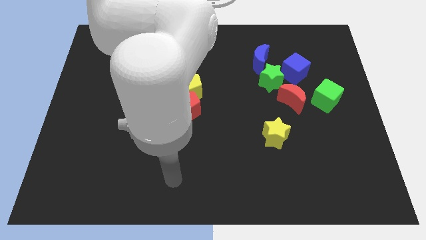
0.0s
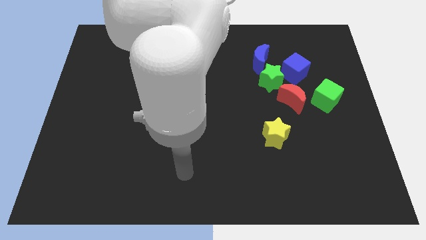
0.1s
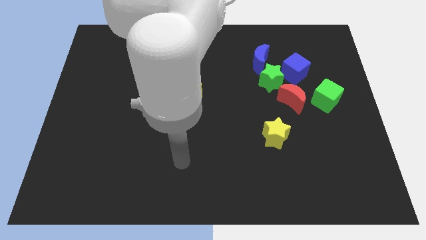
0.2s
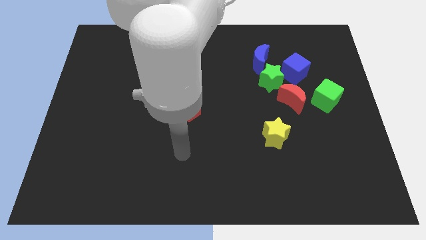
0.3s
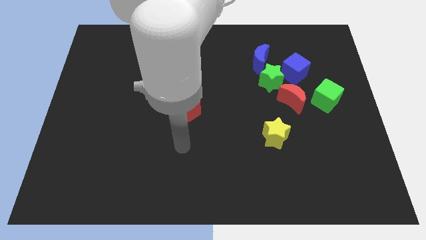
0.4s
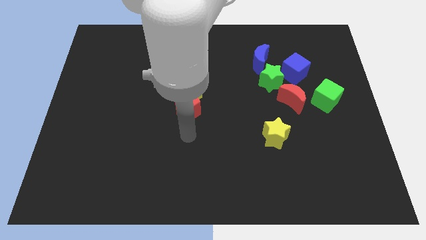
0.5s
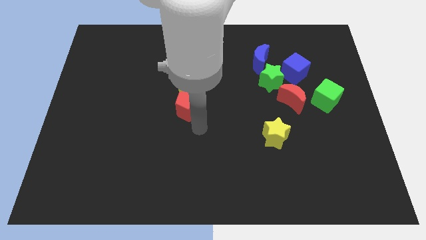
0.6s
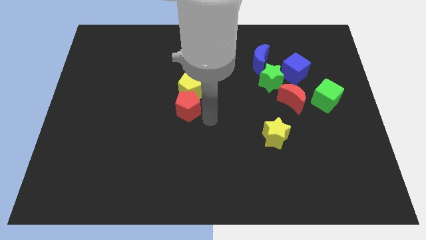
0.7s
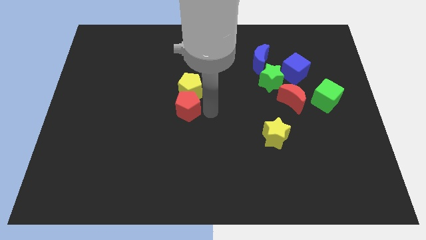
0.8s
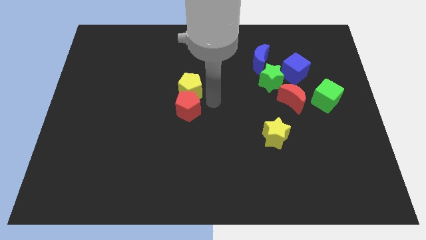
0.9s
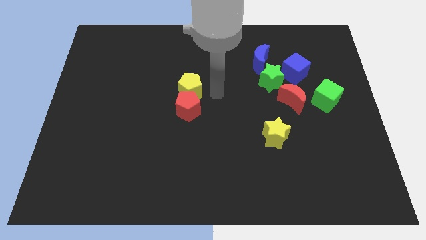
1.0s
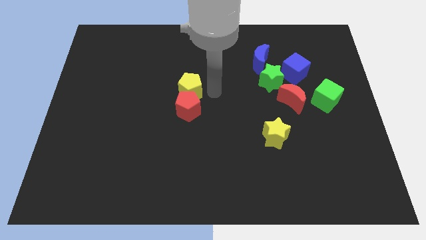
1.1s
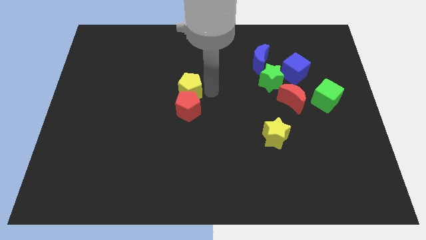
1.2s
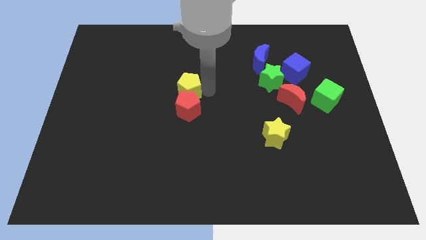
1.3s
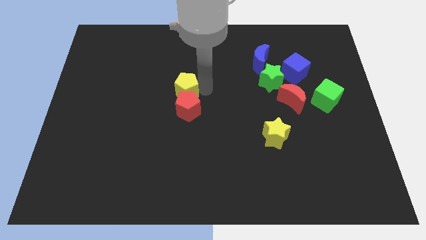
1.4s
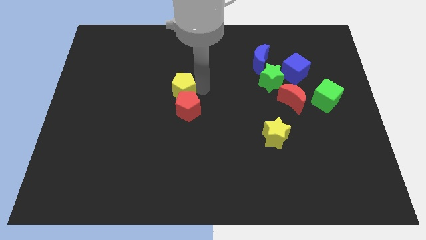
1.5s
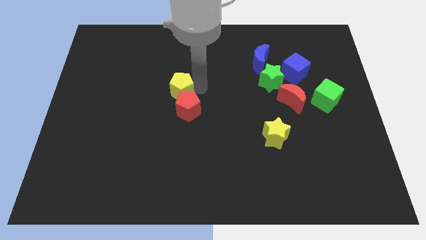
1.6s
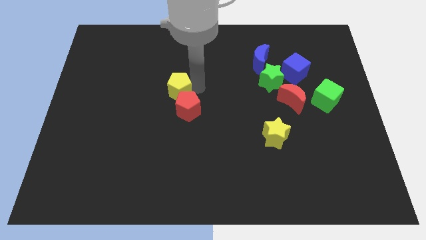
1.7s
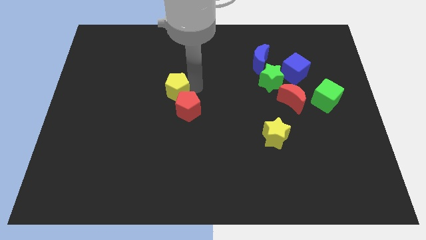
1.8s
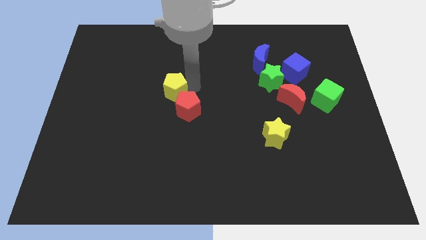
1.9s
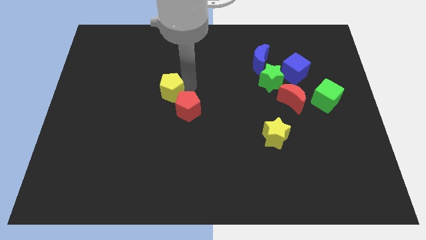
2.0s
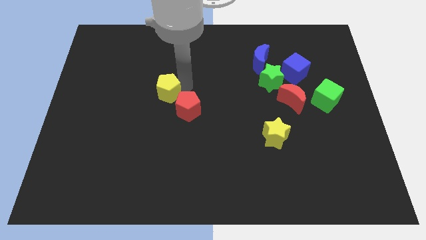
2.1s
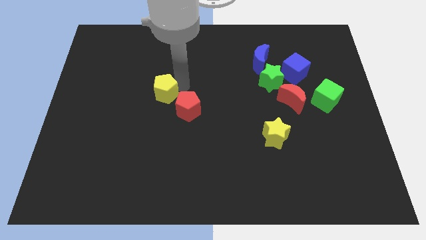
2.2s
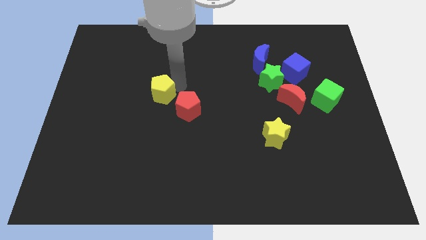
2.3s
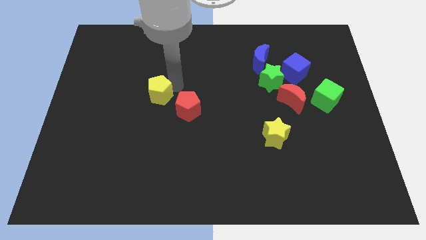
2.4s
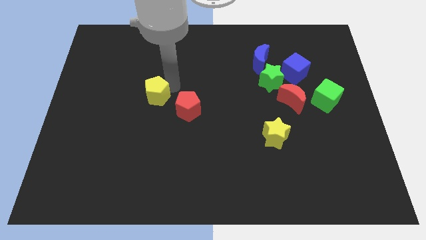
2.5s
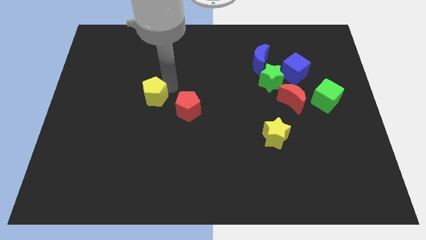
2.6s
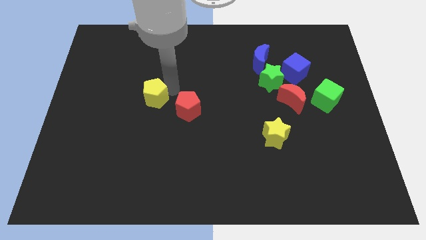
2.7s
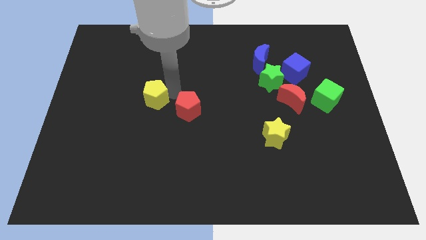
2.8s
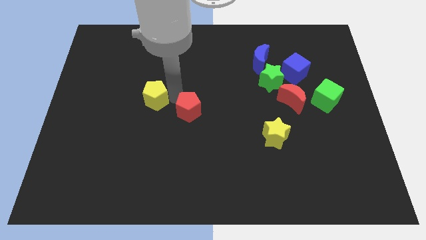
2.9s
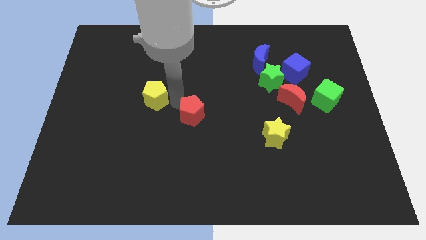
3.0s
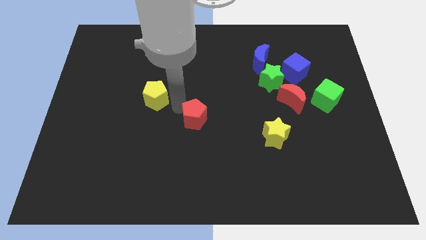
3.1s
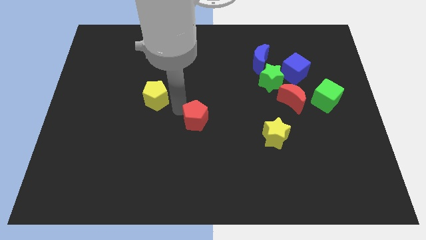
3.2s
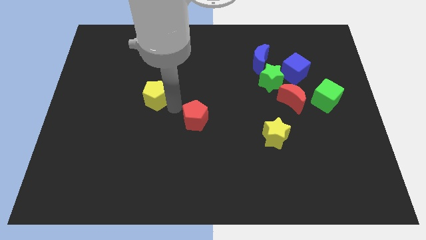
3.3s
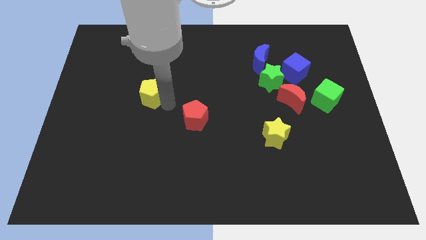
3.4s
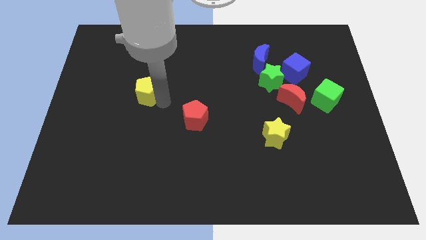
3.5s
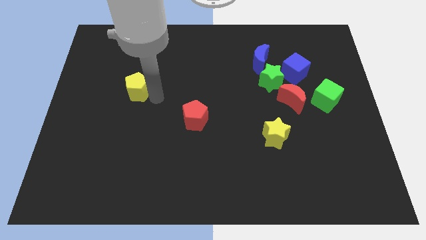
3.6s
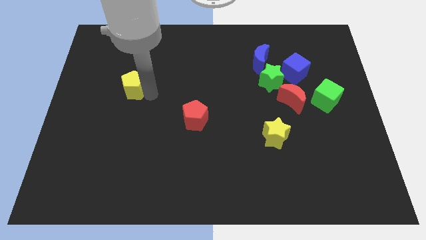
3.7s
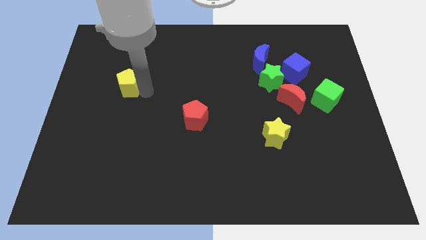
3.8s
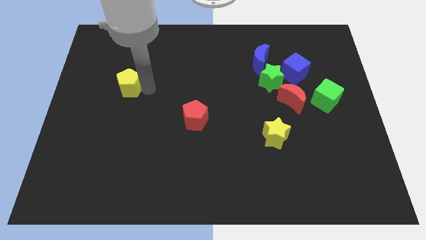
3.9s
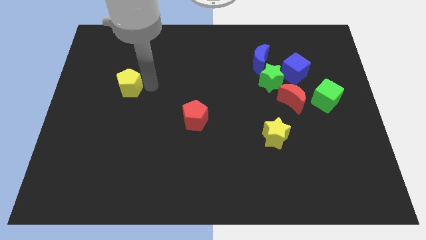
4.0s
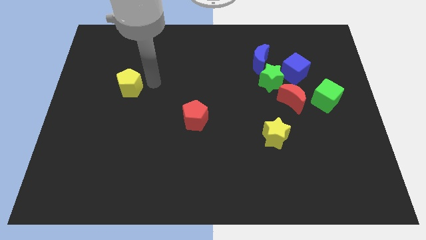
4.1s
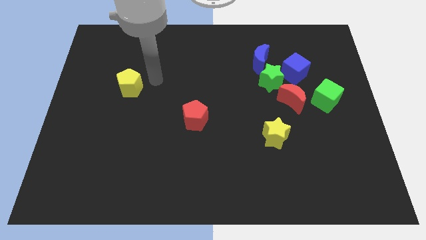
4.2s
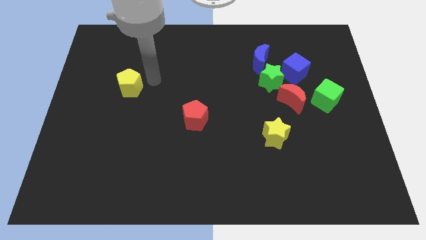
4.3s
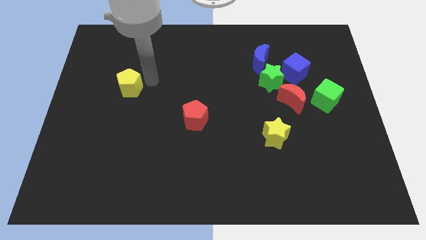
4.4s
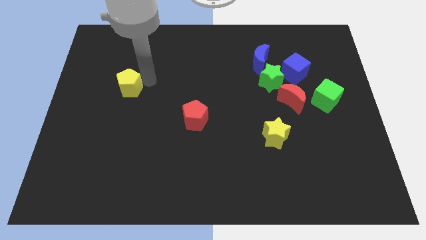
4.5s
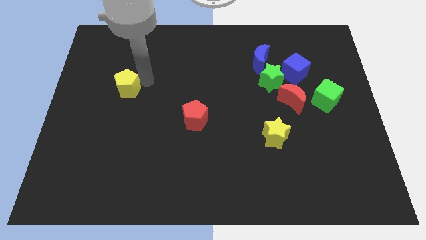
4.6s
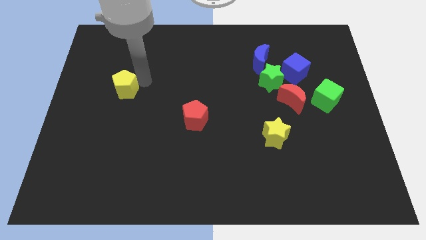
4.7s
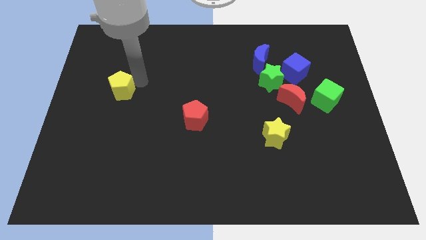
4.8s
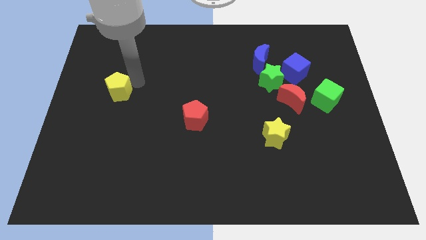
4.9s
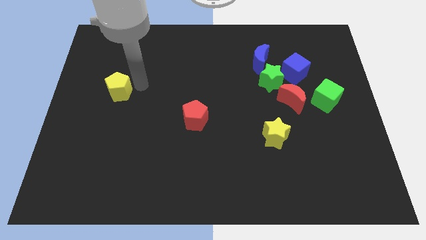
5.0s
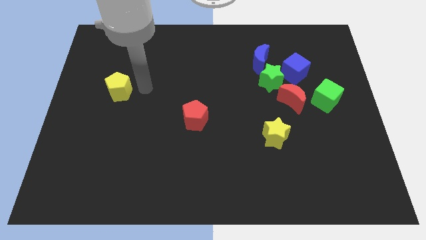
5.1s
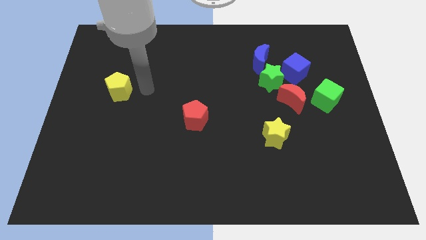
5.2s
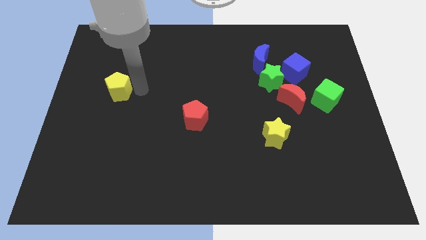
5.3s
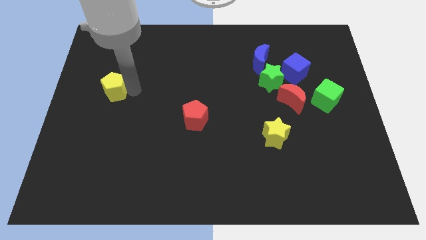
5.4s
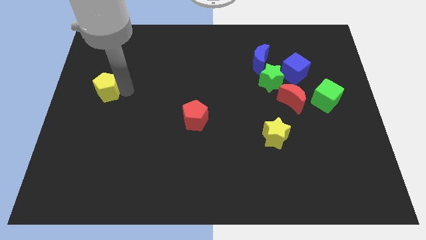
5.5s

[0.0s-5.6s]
push the yellow pentagon to the left side of the board

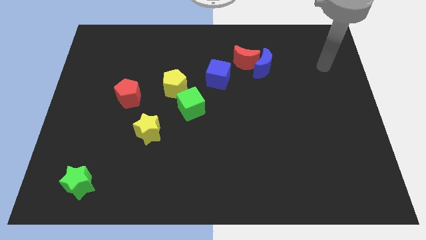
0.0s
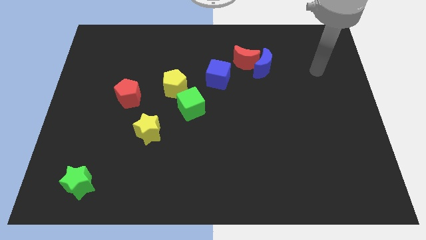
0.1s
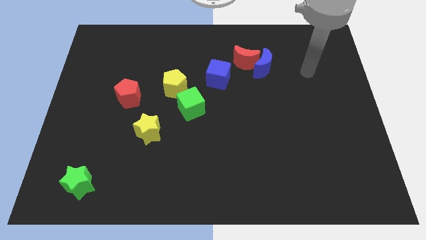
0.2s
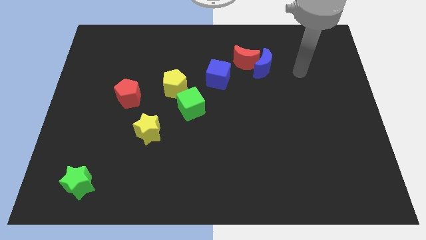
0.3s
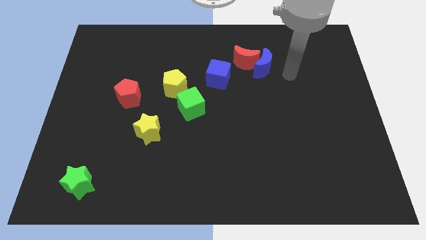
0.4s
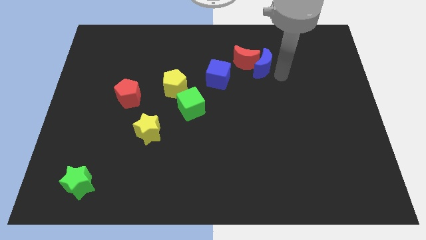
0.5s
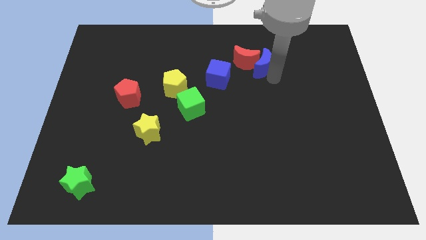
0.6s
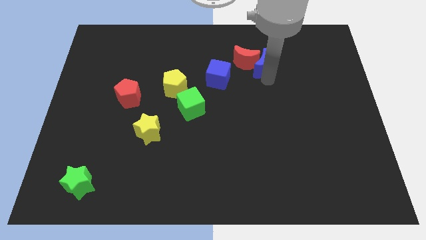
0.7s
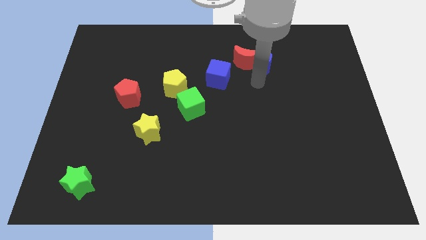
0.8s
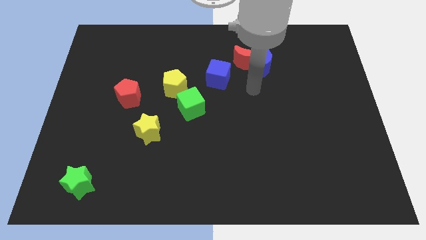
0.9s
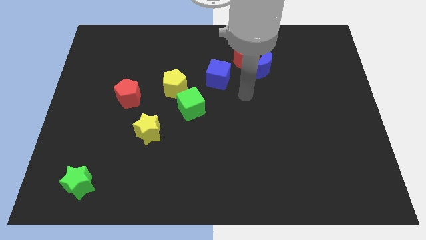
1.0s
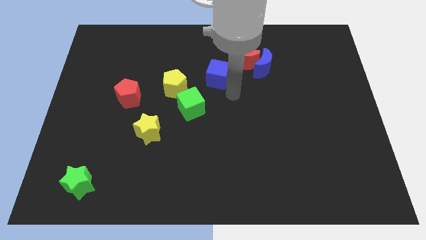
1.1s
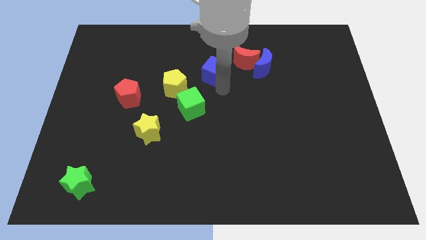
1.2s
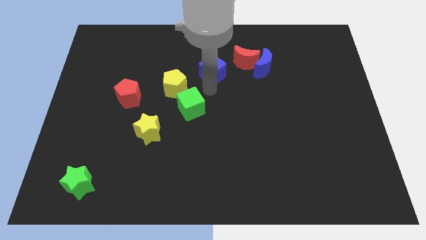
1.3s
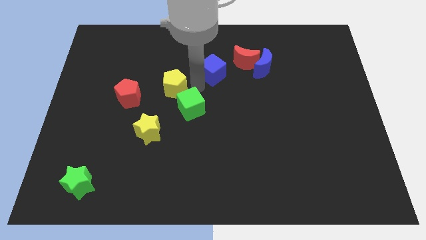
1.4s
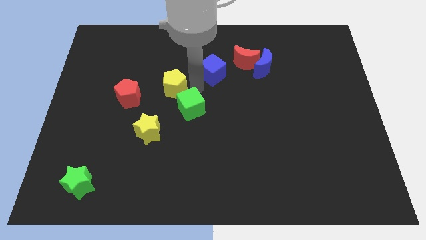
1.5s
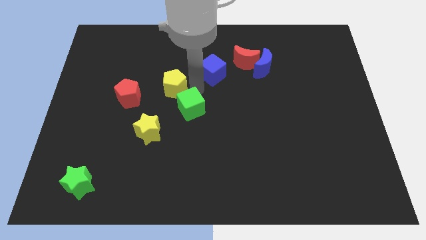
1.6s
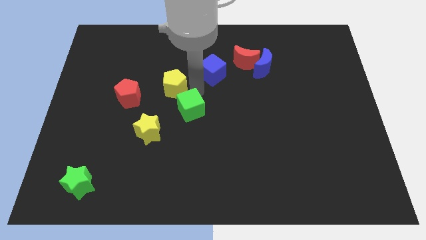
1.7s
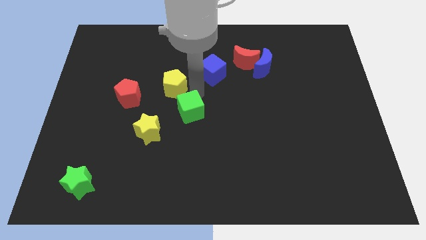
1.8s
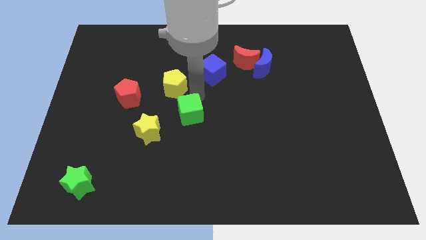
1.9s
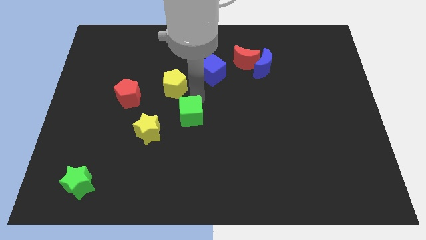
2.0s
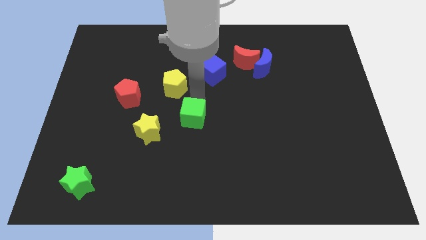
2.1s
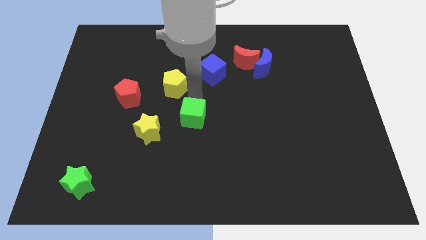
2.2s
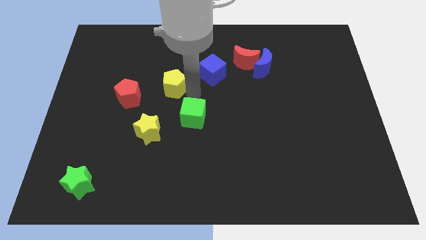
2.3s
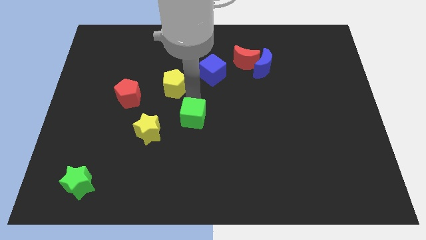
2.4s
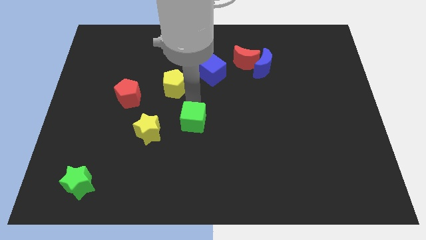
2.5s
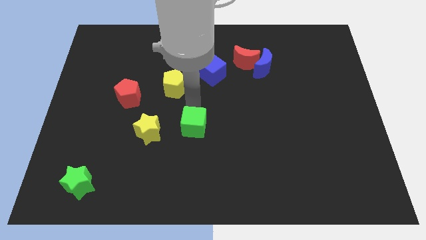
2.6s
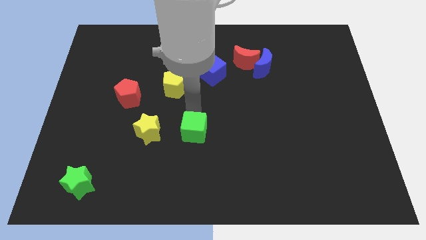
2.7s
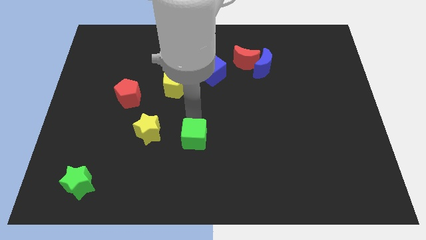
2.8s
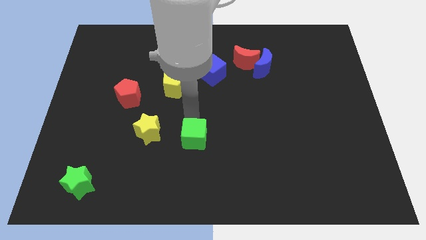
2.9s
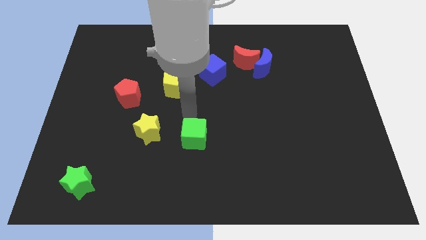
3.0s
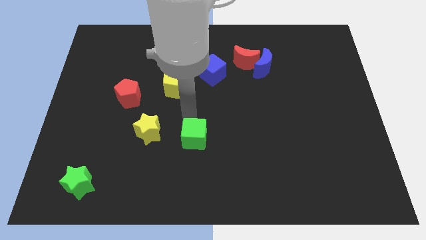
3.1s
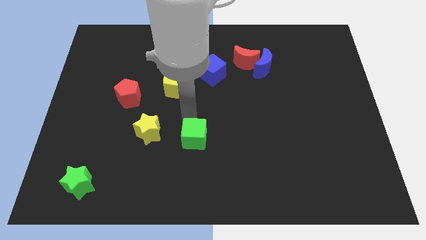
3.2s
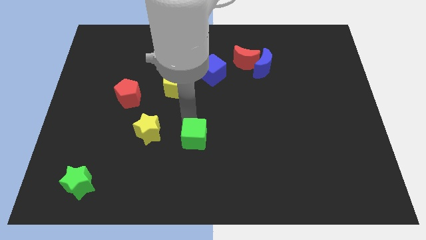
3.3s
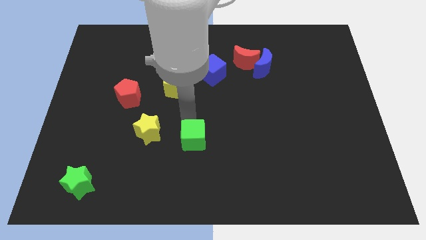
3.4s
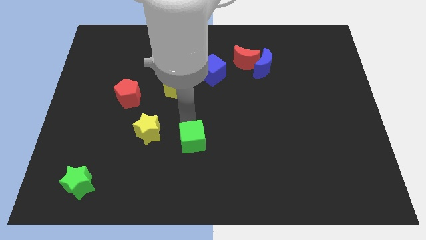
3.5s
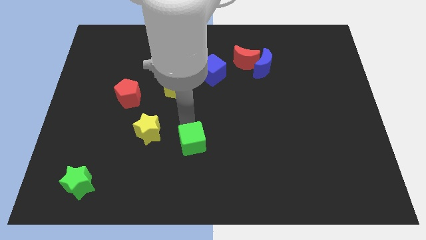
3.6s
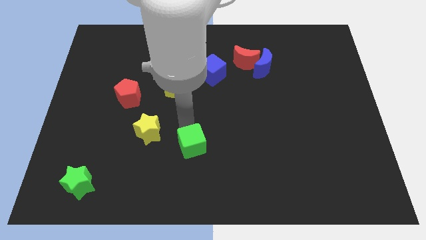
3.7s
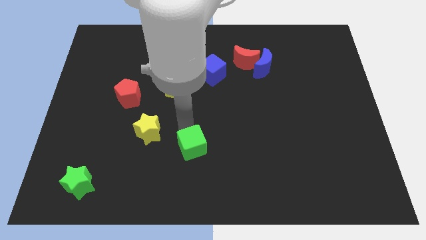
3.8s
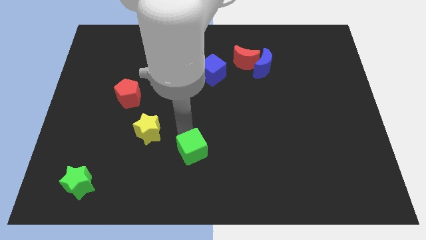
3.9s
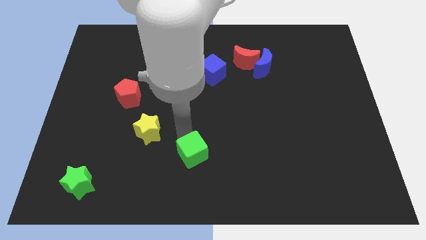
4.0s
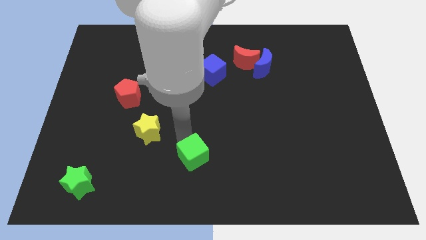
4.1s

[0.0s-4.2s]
put the green cube to the bottom side
